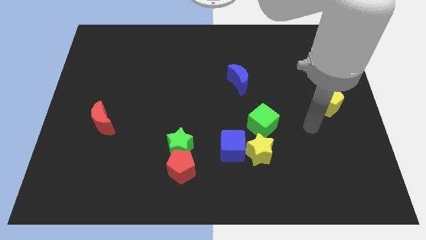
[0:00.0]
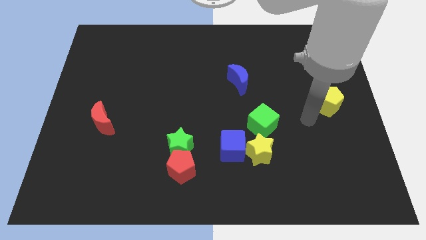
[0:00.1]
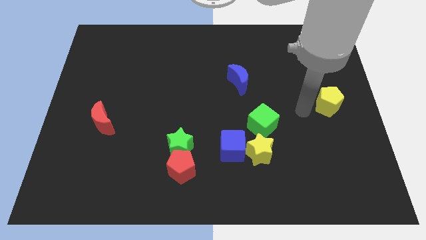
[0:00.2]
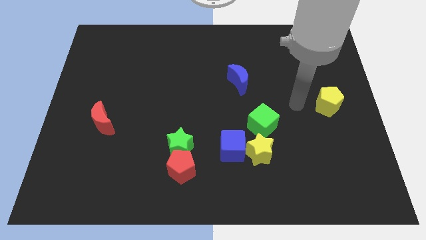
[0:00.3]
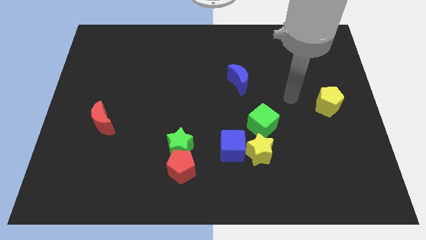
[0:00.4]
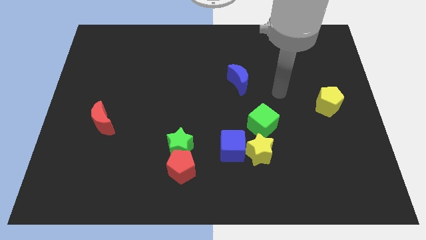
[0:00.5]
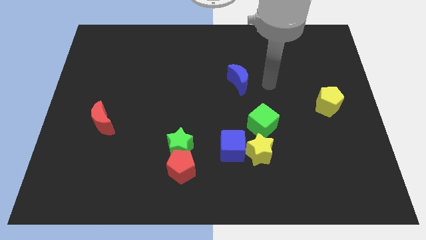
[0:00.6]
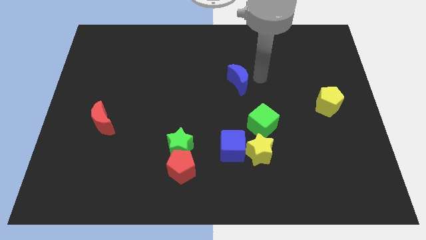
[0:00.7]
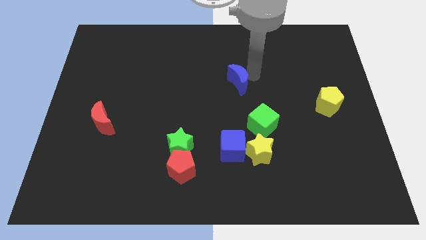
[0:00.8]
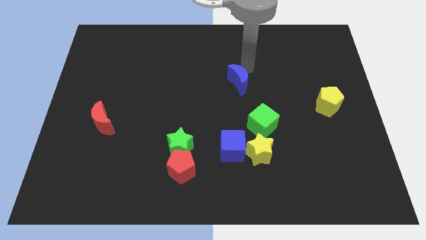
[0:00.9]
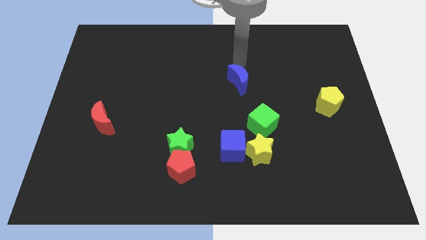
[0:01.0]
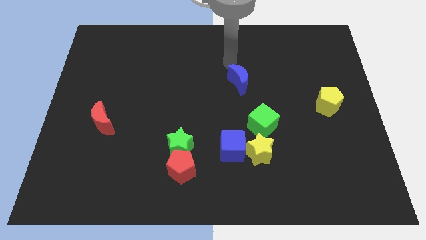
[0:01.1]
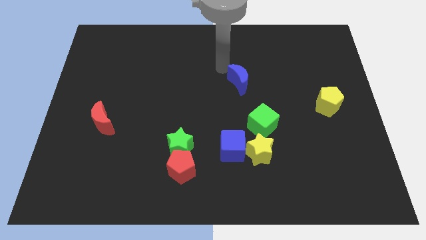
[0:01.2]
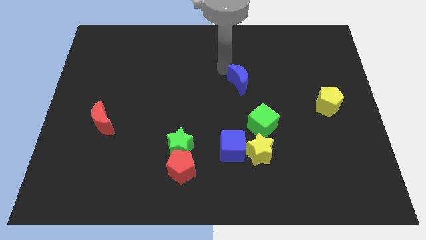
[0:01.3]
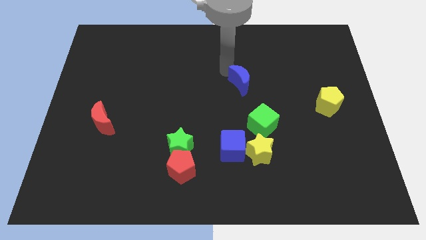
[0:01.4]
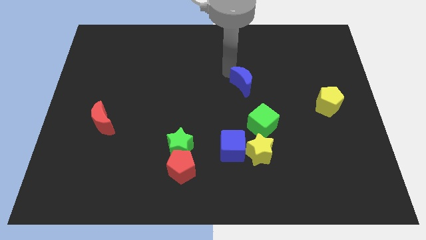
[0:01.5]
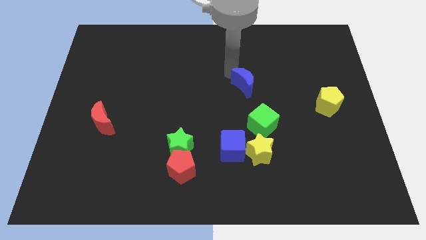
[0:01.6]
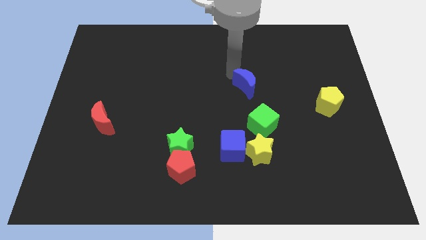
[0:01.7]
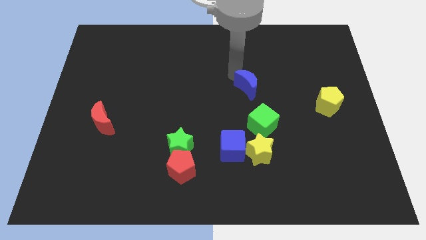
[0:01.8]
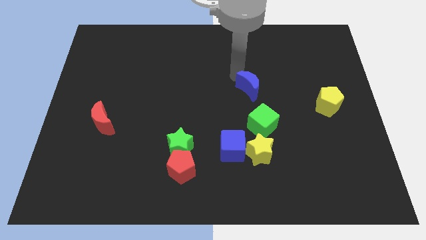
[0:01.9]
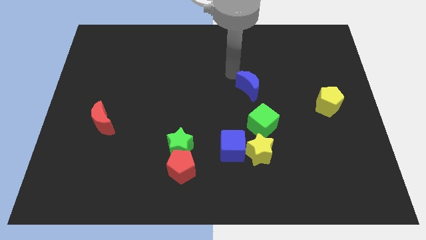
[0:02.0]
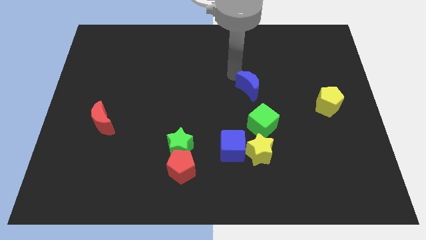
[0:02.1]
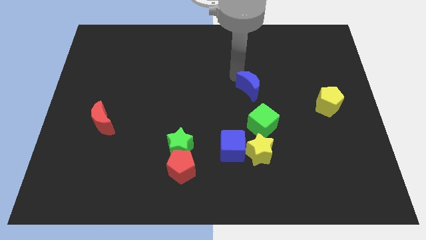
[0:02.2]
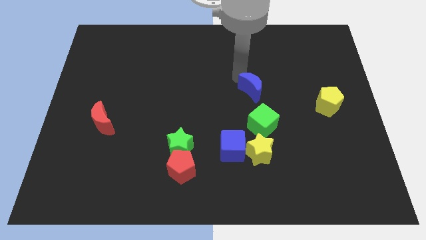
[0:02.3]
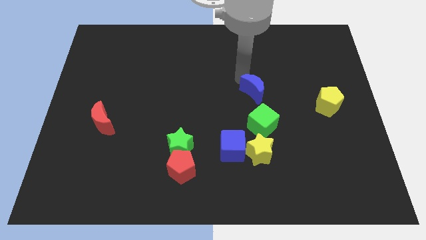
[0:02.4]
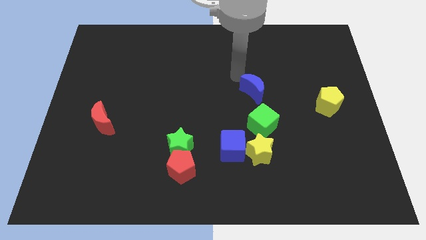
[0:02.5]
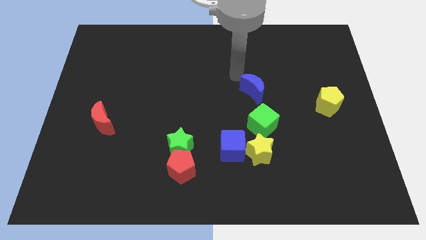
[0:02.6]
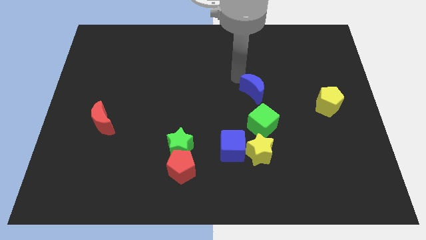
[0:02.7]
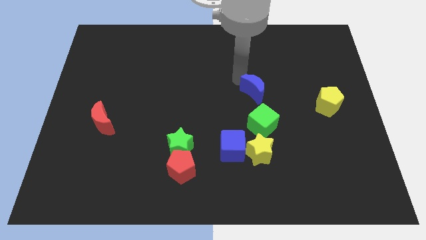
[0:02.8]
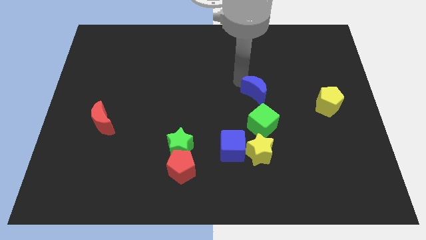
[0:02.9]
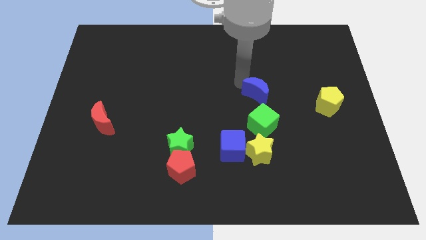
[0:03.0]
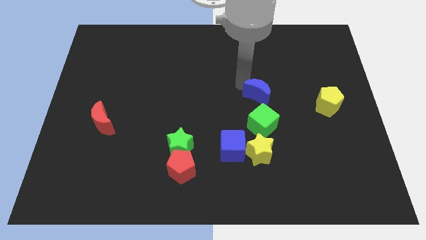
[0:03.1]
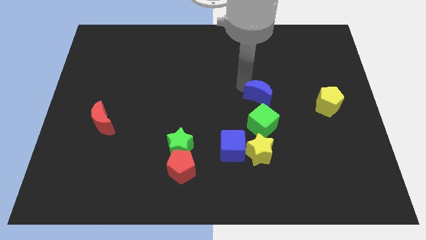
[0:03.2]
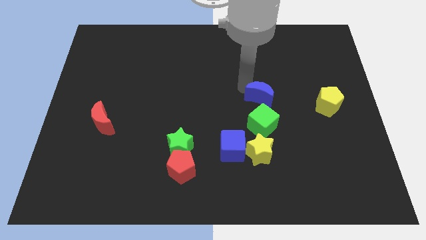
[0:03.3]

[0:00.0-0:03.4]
slightly move the blue moon downwards and right diagonally

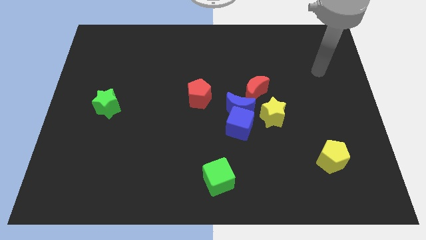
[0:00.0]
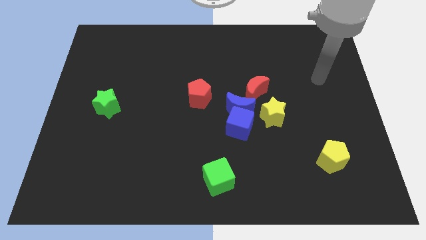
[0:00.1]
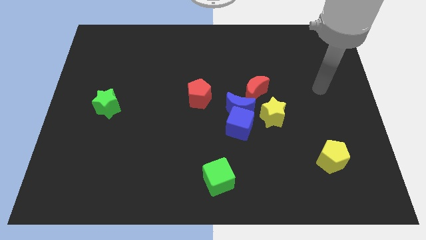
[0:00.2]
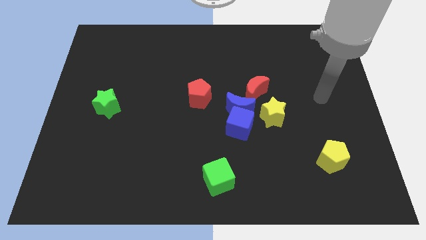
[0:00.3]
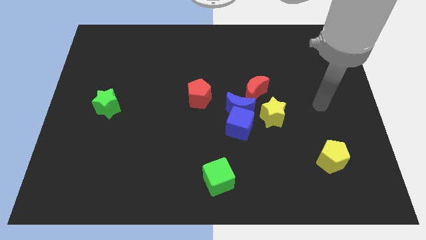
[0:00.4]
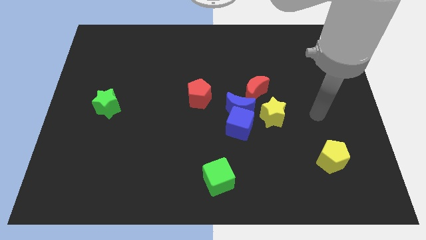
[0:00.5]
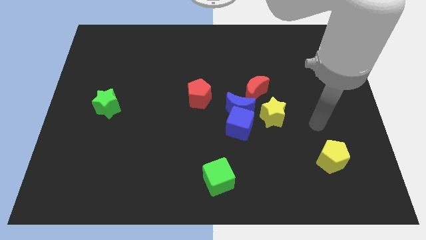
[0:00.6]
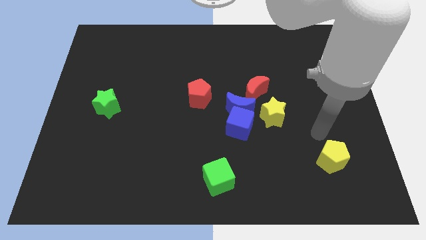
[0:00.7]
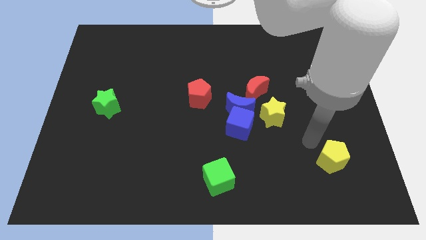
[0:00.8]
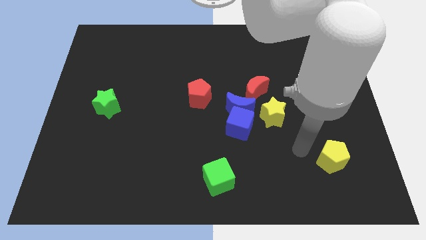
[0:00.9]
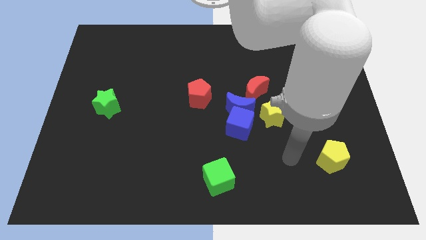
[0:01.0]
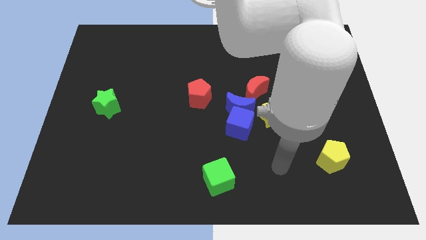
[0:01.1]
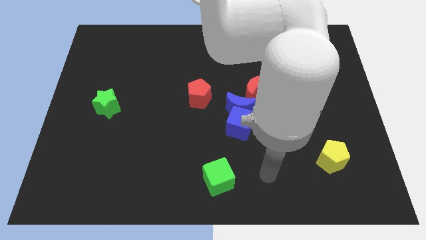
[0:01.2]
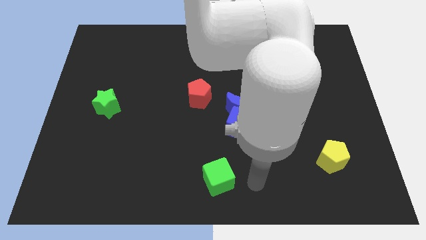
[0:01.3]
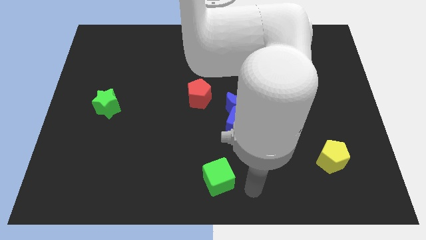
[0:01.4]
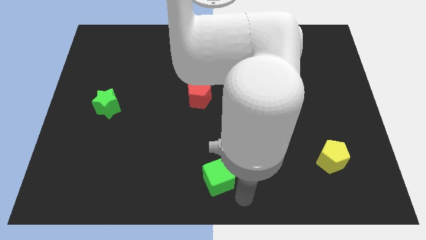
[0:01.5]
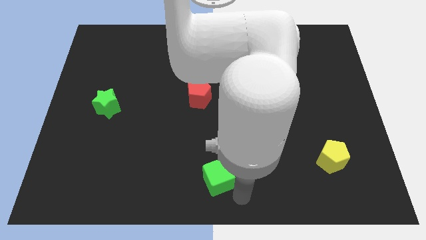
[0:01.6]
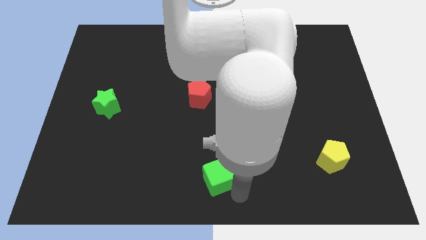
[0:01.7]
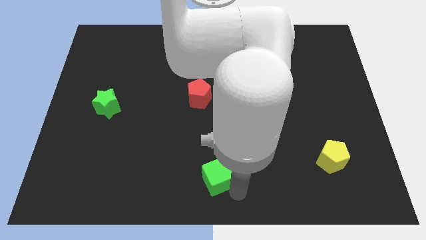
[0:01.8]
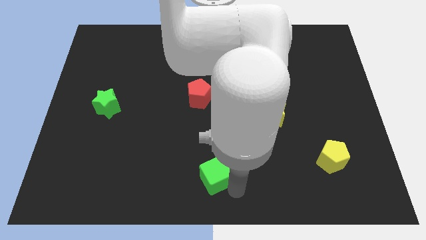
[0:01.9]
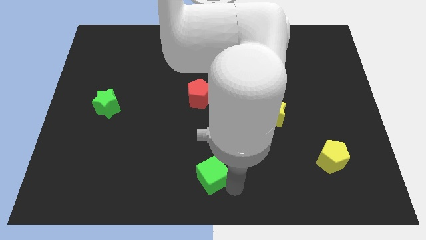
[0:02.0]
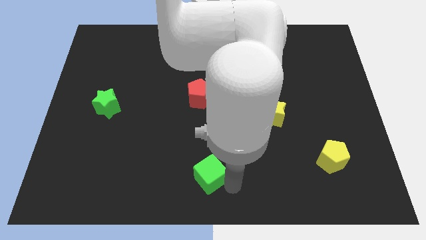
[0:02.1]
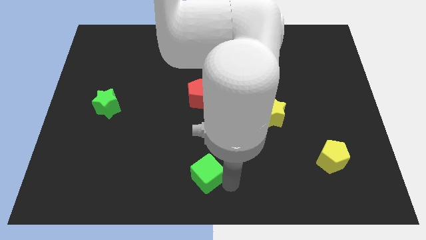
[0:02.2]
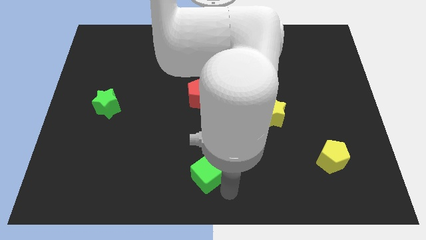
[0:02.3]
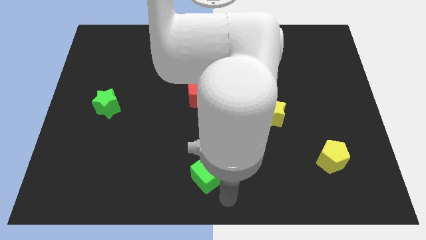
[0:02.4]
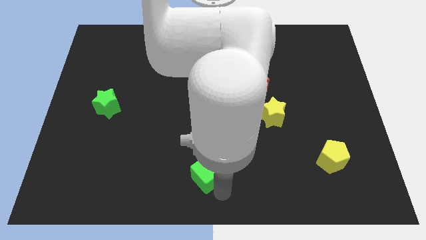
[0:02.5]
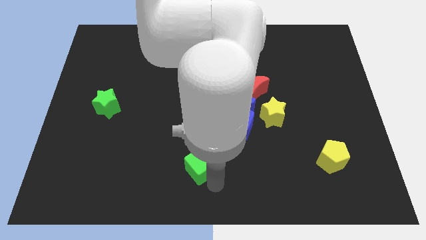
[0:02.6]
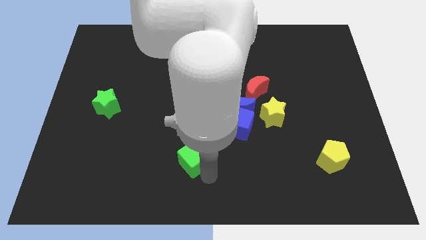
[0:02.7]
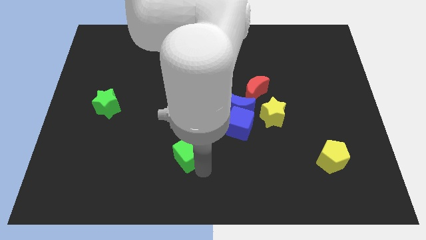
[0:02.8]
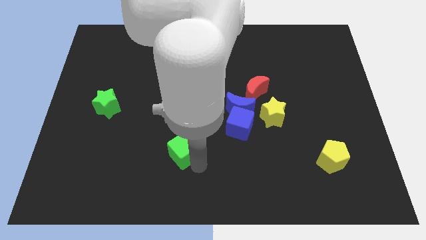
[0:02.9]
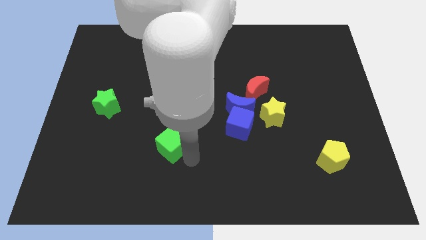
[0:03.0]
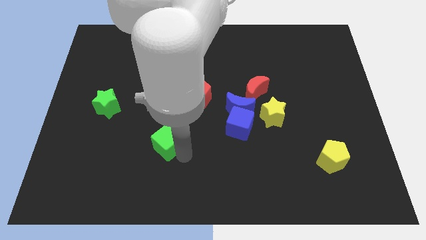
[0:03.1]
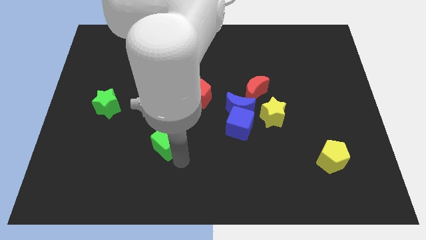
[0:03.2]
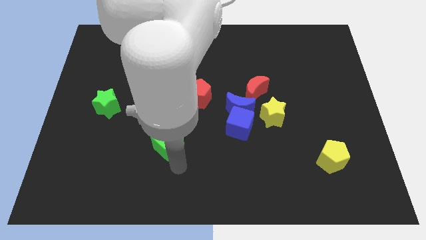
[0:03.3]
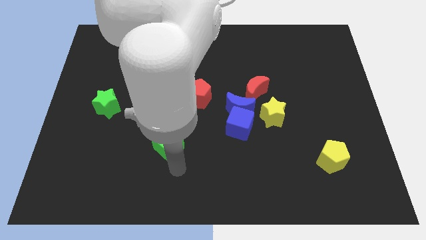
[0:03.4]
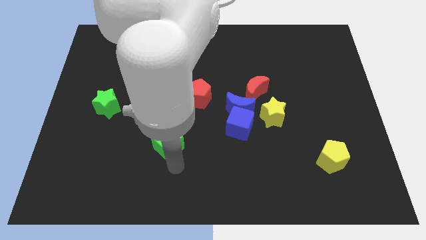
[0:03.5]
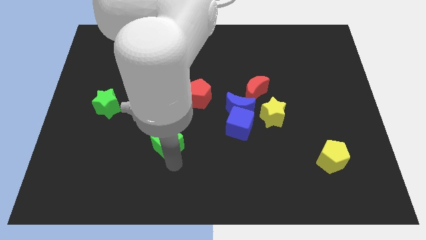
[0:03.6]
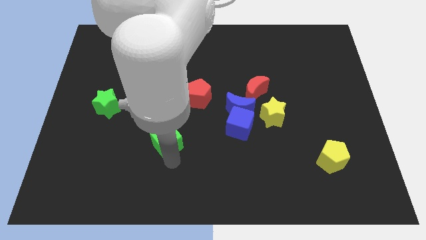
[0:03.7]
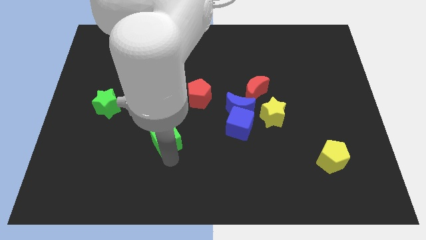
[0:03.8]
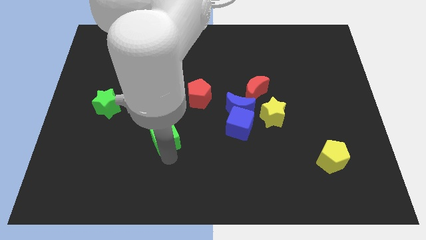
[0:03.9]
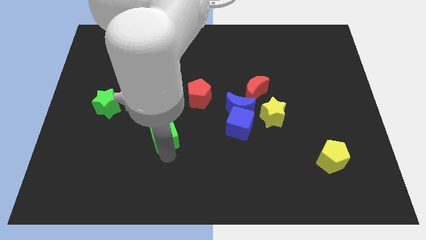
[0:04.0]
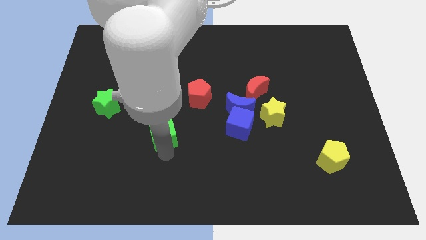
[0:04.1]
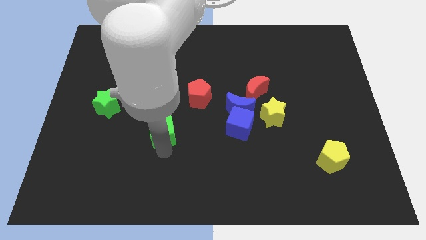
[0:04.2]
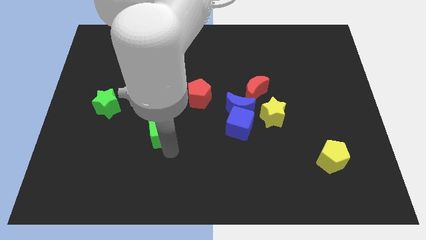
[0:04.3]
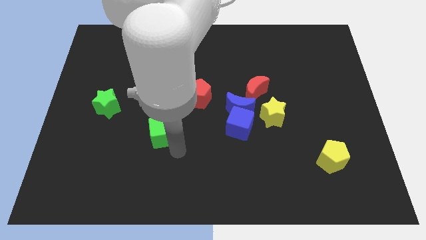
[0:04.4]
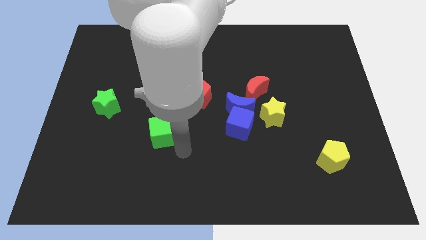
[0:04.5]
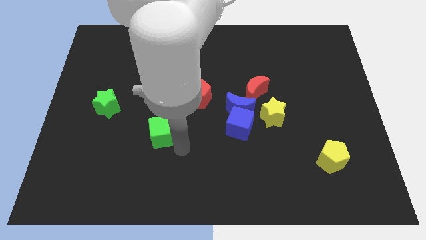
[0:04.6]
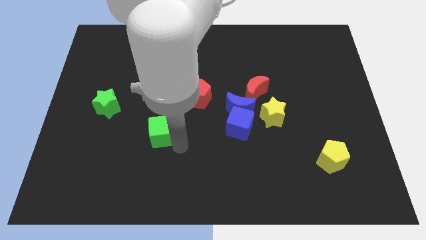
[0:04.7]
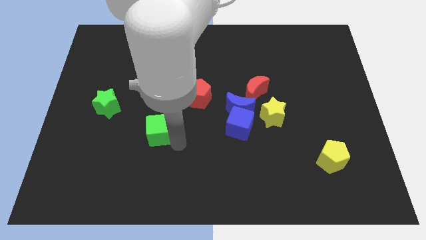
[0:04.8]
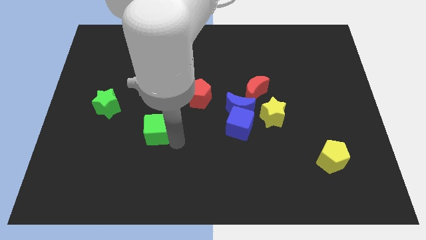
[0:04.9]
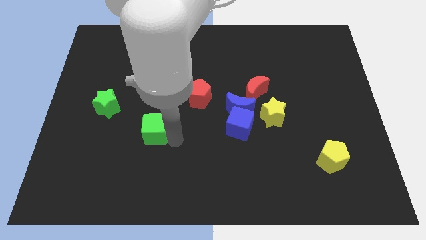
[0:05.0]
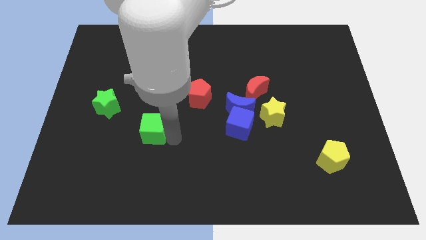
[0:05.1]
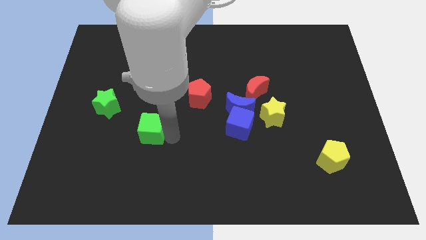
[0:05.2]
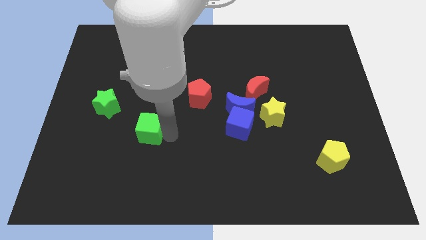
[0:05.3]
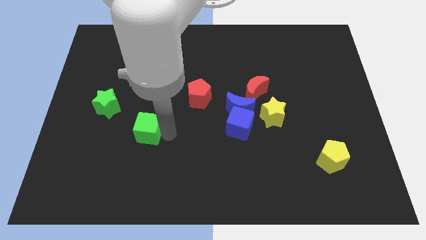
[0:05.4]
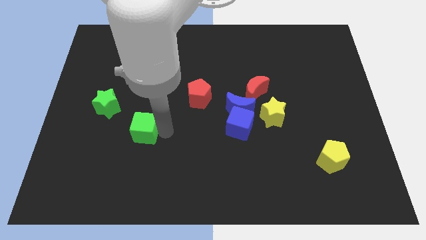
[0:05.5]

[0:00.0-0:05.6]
slide the green cube diagonally up and left
